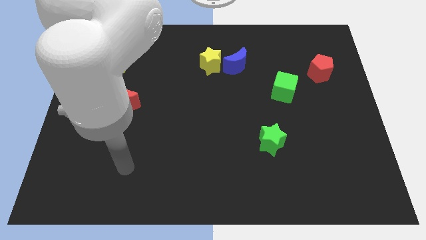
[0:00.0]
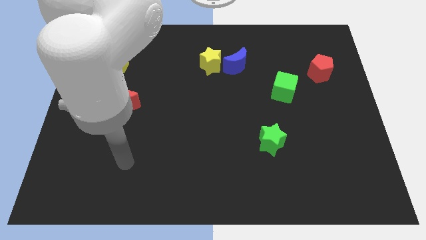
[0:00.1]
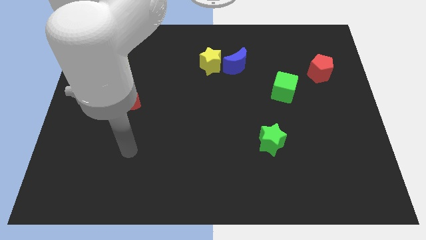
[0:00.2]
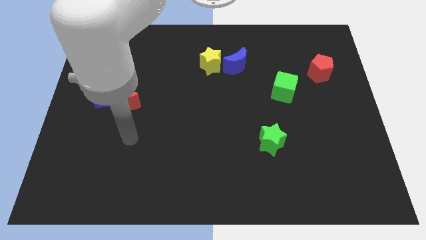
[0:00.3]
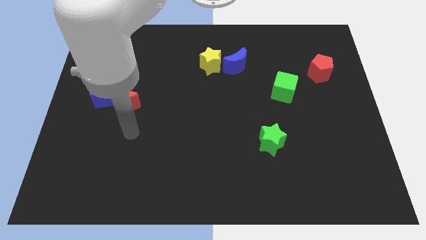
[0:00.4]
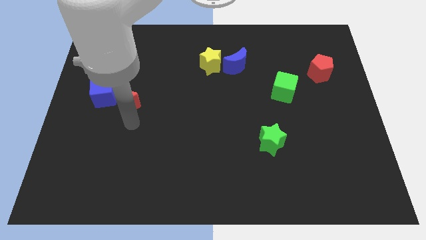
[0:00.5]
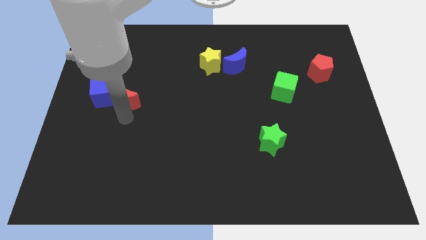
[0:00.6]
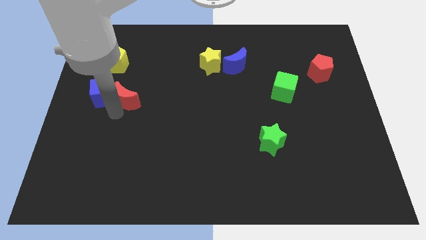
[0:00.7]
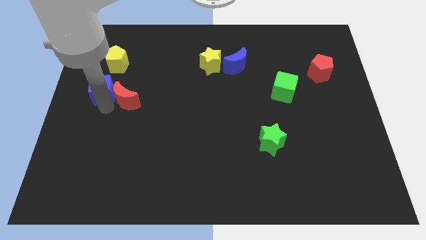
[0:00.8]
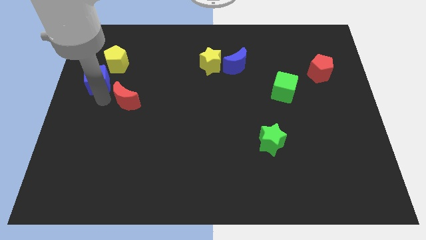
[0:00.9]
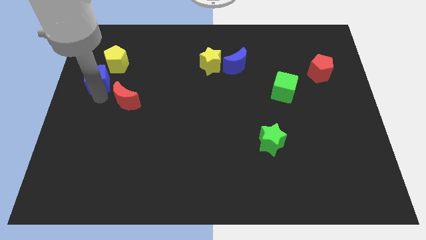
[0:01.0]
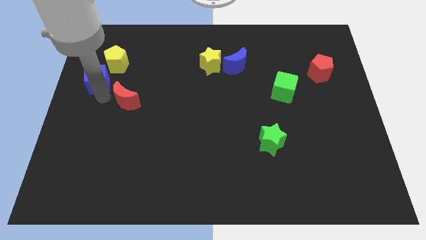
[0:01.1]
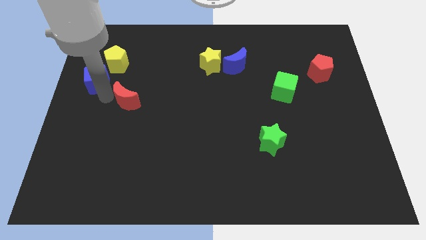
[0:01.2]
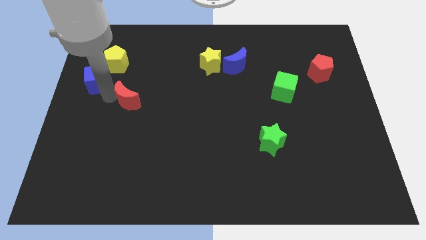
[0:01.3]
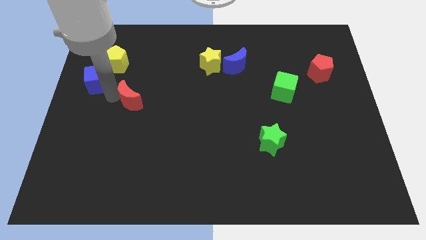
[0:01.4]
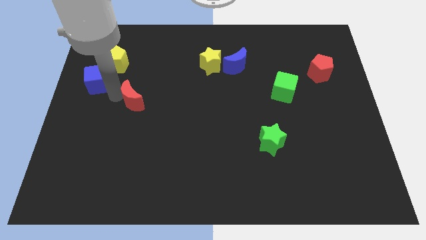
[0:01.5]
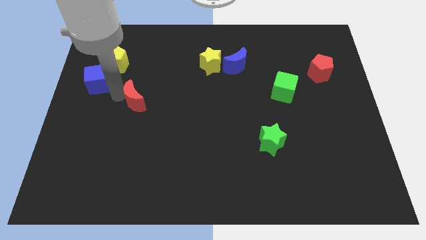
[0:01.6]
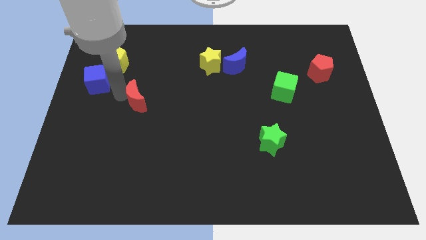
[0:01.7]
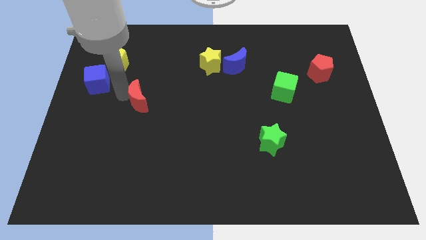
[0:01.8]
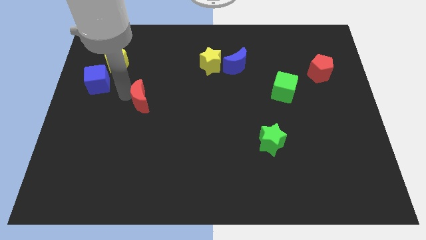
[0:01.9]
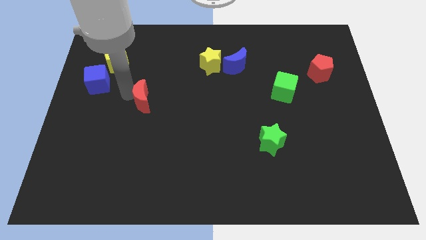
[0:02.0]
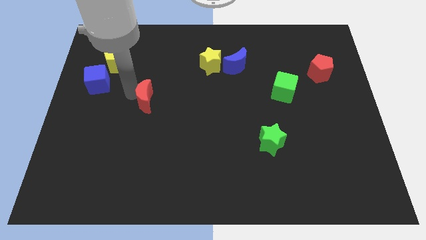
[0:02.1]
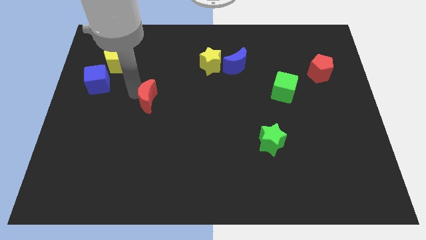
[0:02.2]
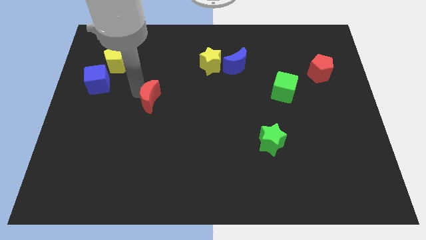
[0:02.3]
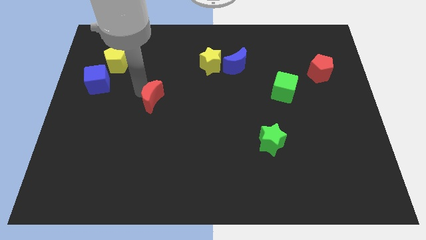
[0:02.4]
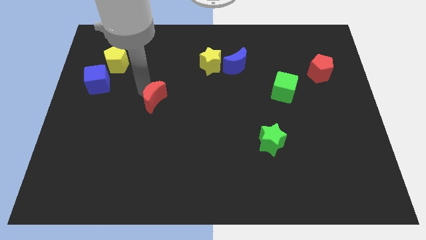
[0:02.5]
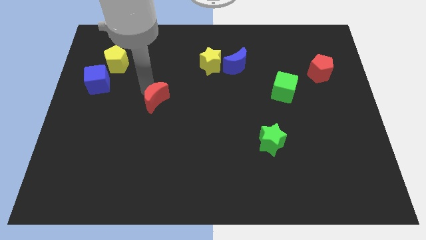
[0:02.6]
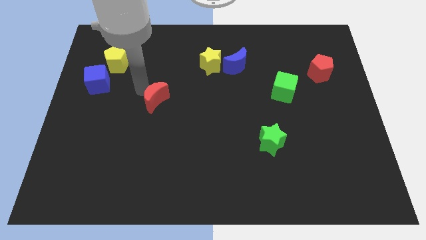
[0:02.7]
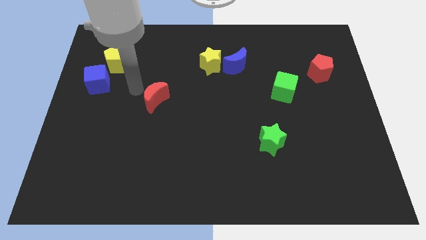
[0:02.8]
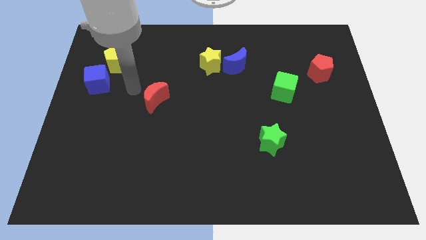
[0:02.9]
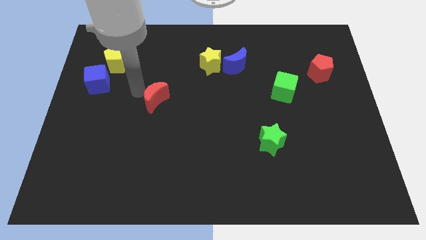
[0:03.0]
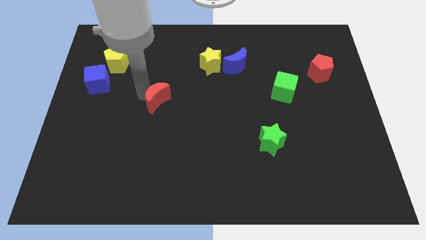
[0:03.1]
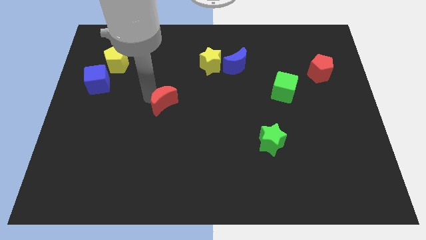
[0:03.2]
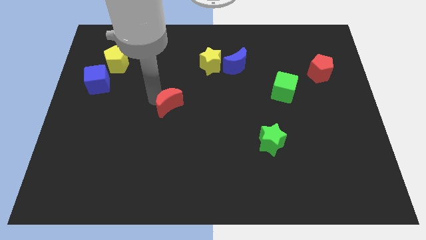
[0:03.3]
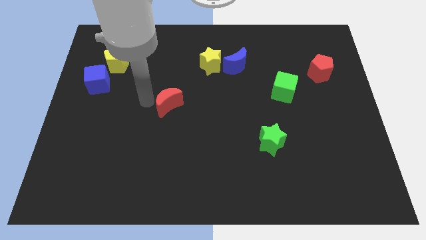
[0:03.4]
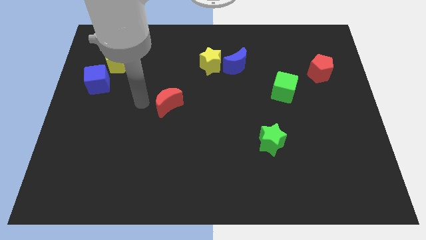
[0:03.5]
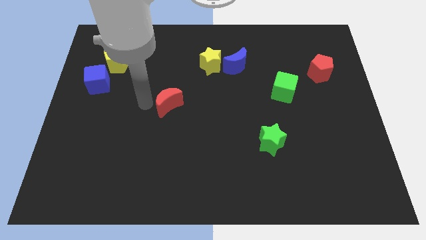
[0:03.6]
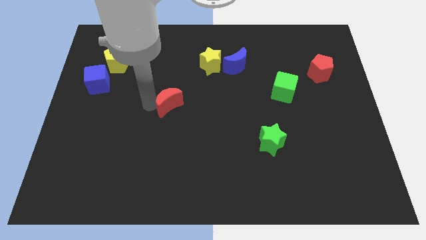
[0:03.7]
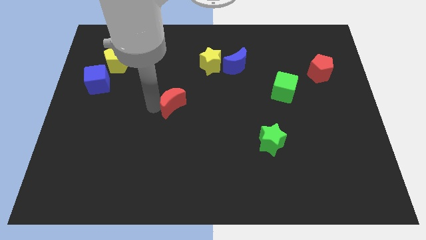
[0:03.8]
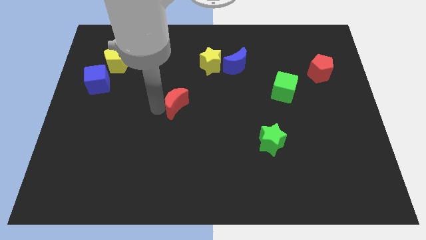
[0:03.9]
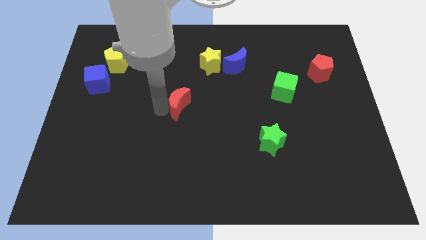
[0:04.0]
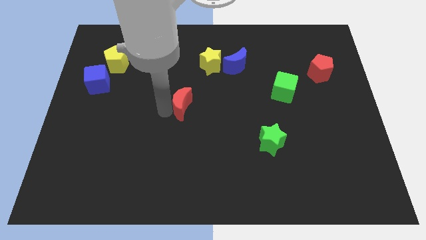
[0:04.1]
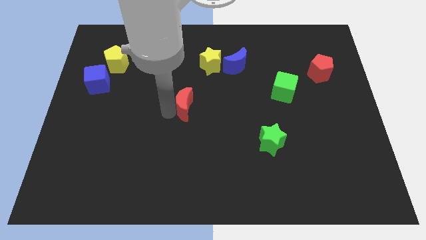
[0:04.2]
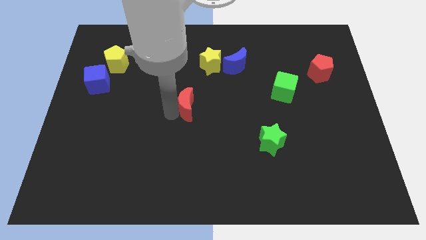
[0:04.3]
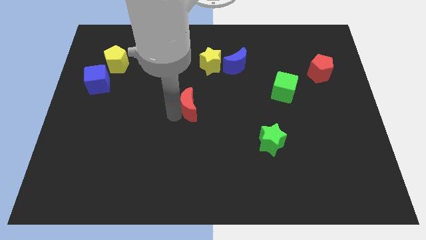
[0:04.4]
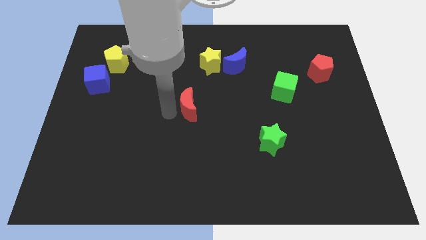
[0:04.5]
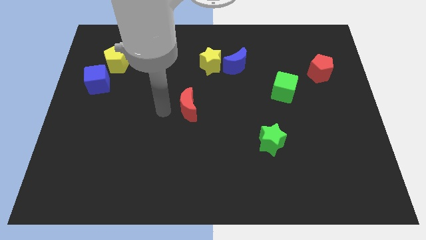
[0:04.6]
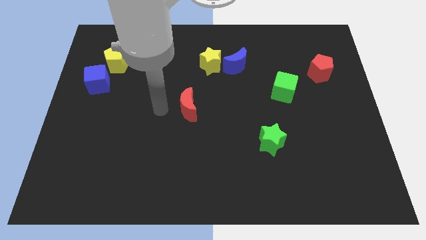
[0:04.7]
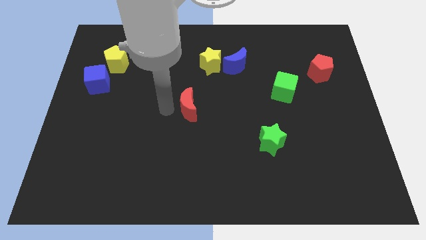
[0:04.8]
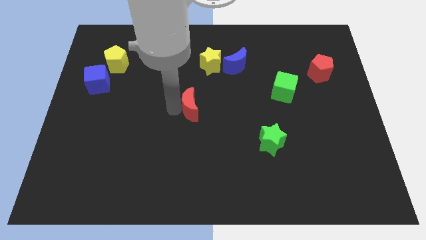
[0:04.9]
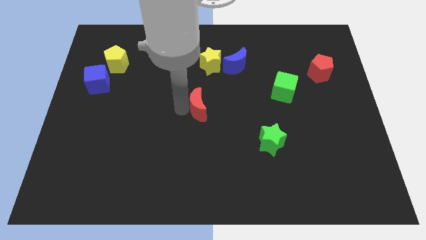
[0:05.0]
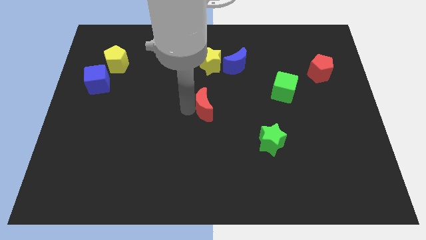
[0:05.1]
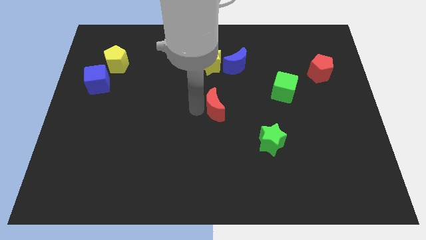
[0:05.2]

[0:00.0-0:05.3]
push the red moon to the right

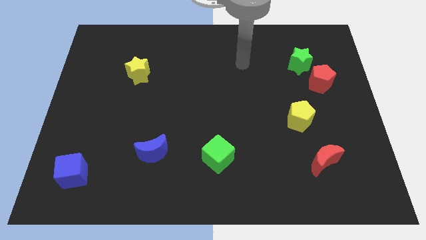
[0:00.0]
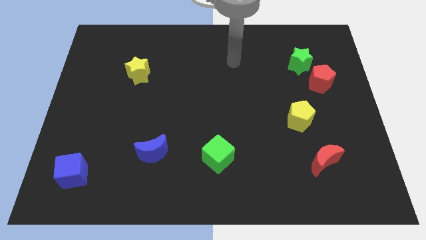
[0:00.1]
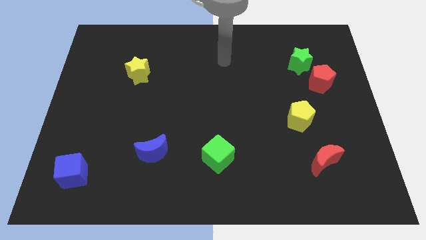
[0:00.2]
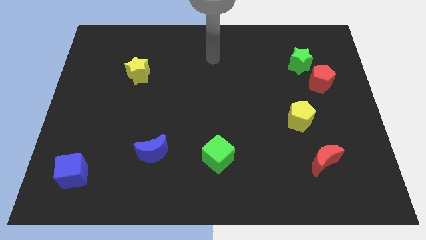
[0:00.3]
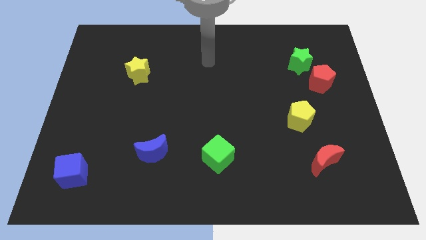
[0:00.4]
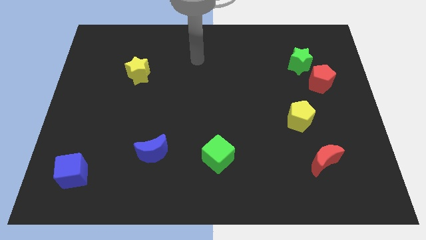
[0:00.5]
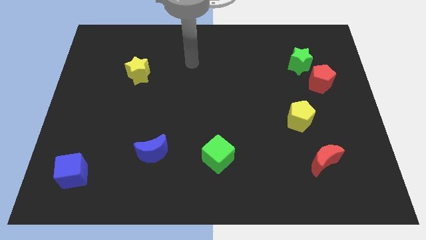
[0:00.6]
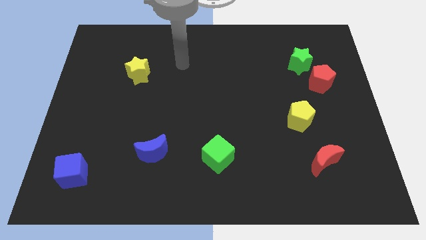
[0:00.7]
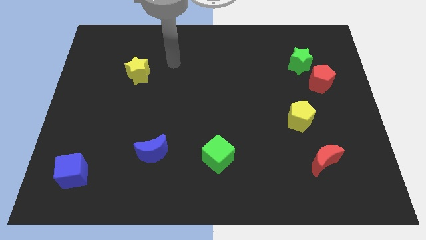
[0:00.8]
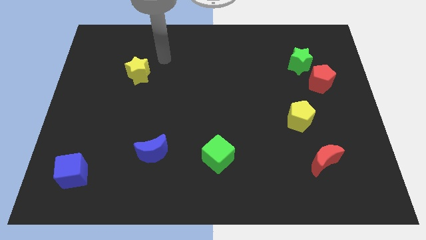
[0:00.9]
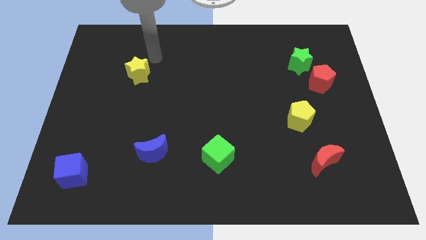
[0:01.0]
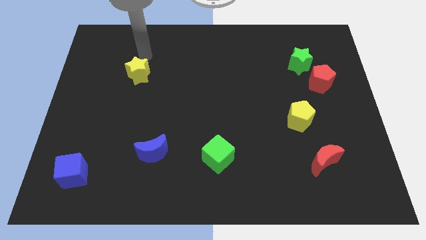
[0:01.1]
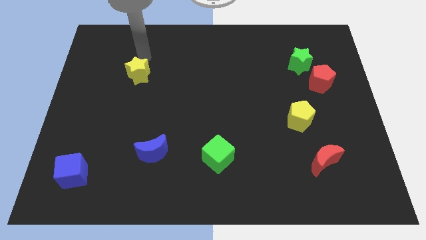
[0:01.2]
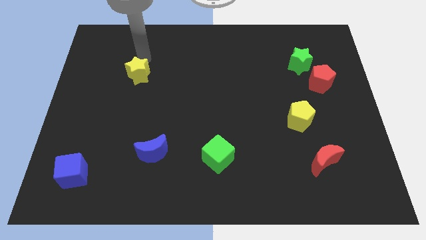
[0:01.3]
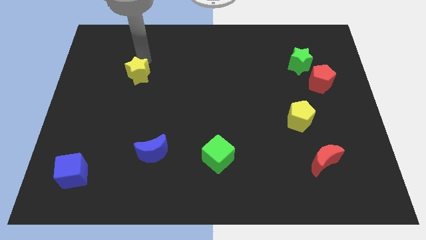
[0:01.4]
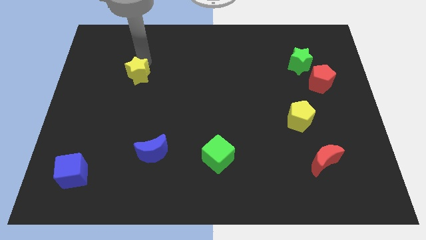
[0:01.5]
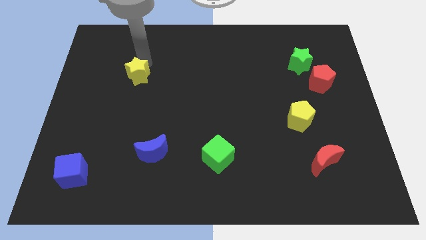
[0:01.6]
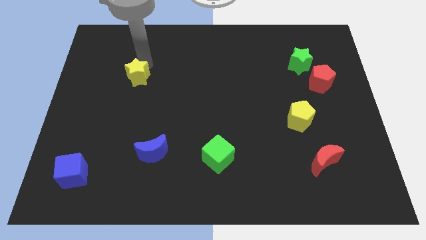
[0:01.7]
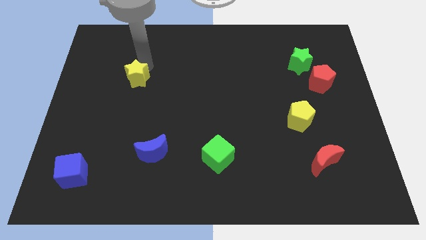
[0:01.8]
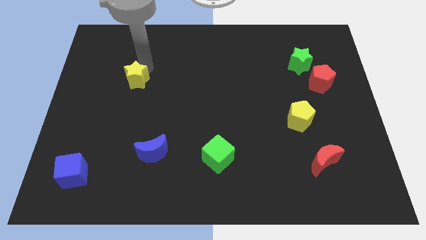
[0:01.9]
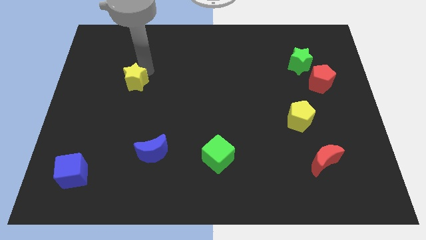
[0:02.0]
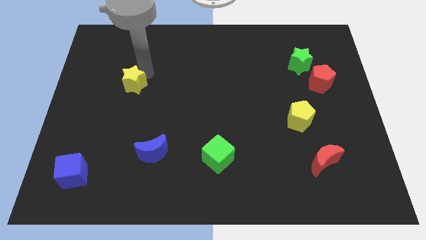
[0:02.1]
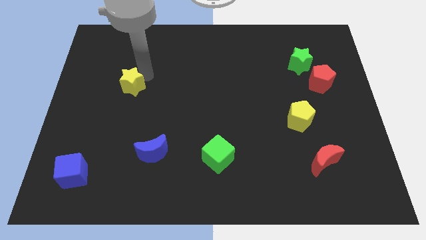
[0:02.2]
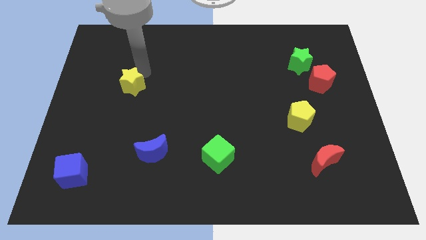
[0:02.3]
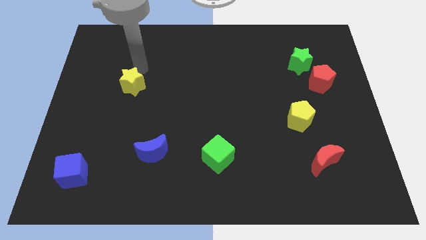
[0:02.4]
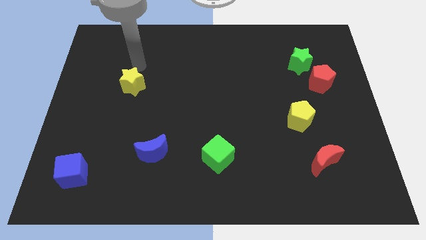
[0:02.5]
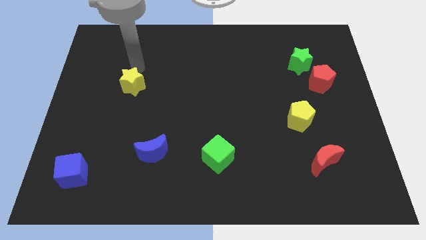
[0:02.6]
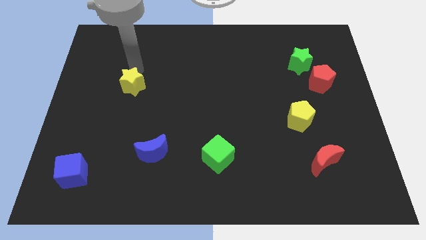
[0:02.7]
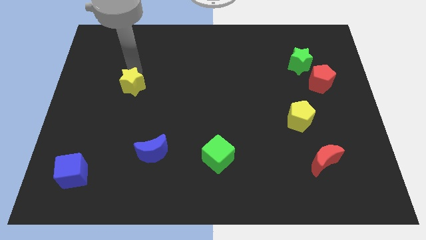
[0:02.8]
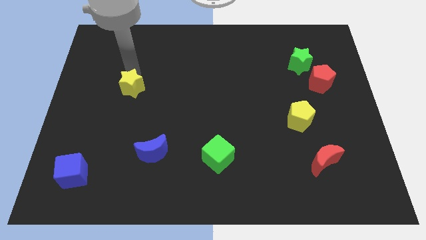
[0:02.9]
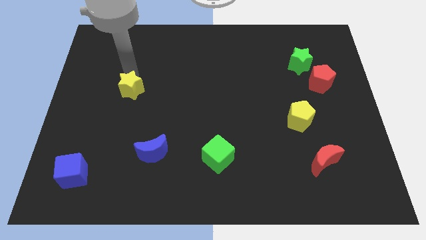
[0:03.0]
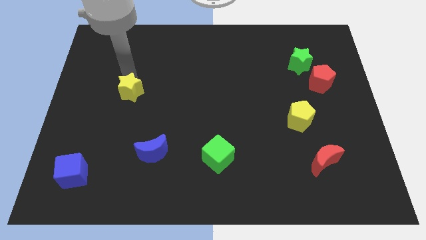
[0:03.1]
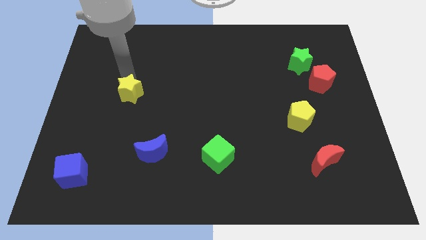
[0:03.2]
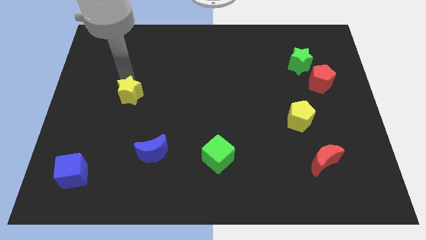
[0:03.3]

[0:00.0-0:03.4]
slide the yellow star a bit downwards
